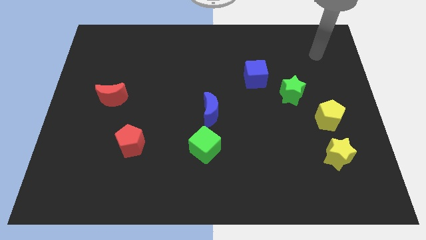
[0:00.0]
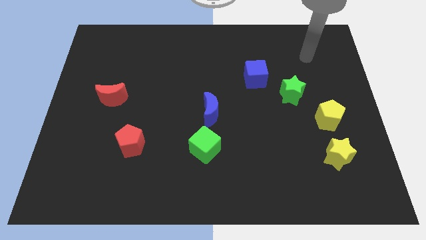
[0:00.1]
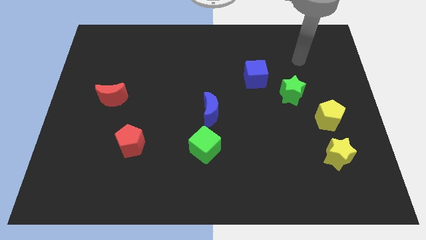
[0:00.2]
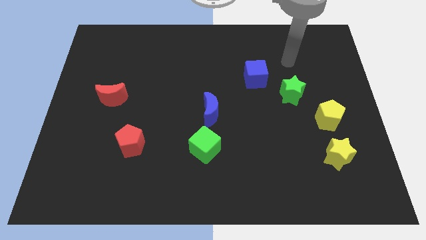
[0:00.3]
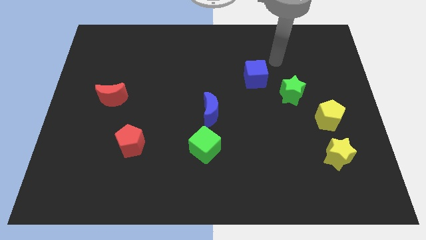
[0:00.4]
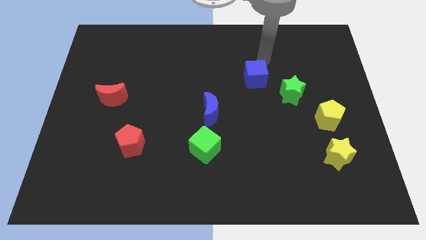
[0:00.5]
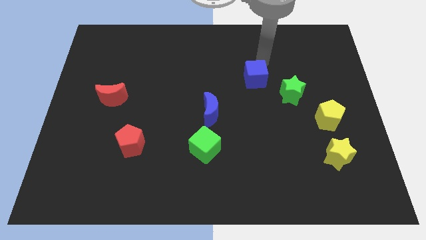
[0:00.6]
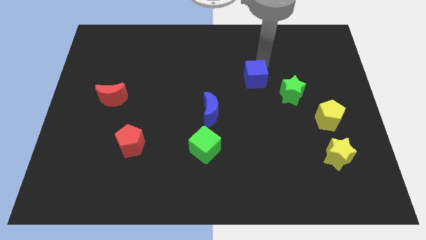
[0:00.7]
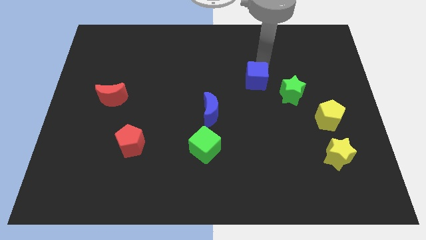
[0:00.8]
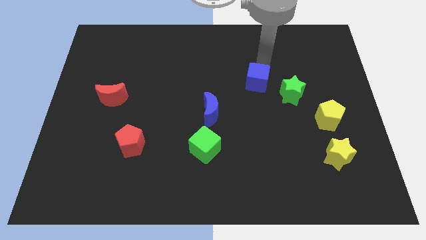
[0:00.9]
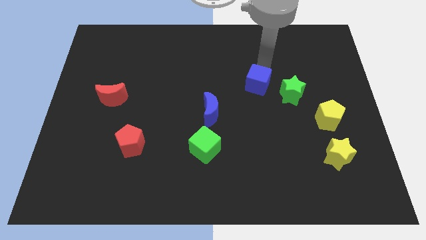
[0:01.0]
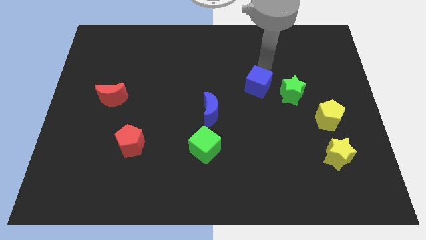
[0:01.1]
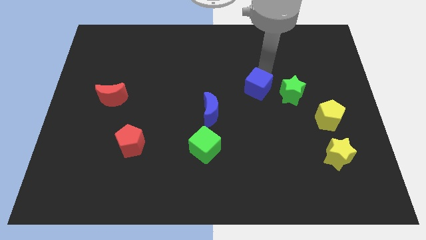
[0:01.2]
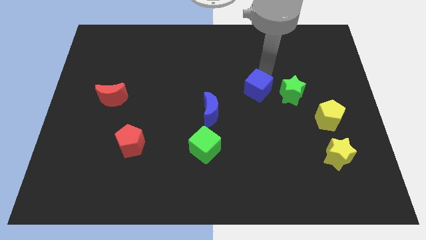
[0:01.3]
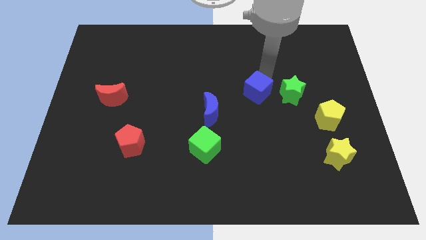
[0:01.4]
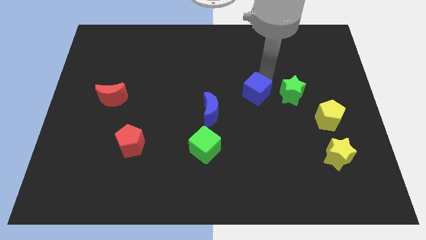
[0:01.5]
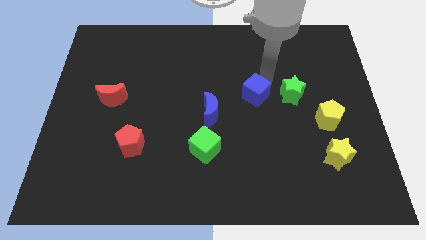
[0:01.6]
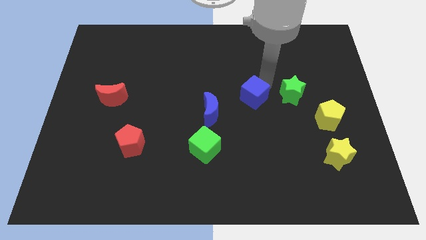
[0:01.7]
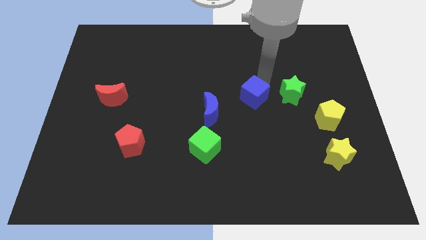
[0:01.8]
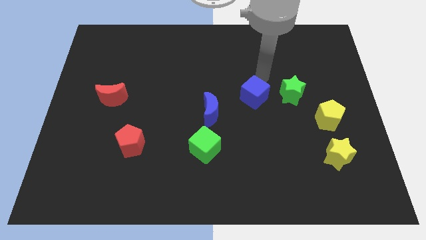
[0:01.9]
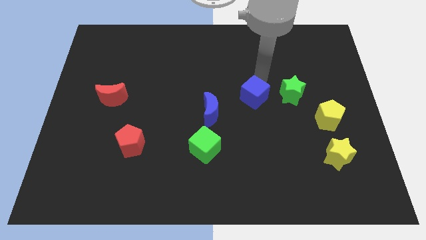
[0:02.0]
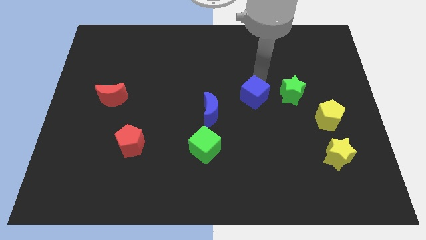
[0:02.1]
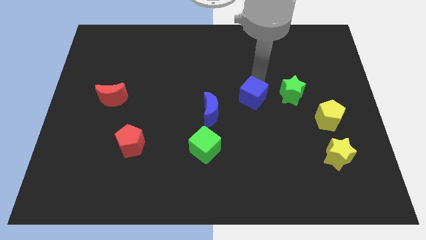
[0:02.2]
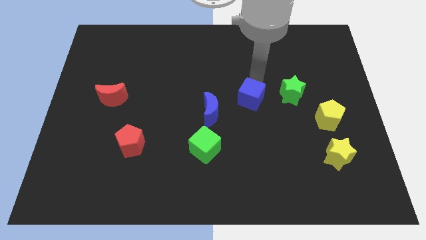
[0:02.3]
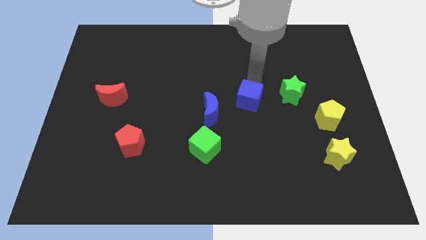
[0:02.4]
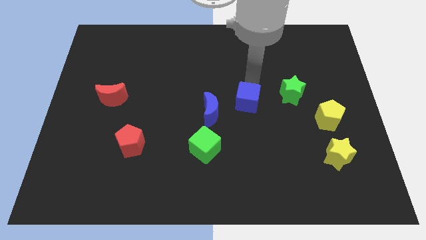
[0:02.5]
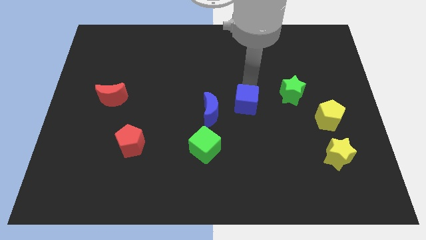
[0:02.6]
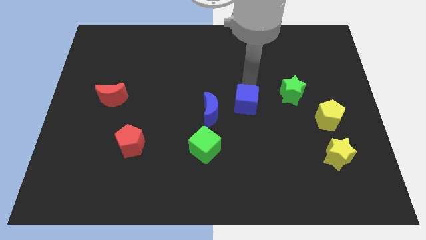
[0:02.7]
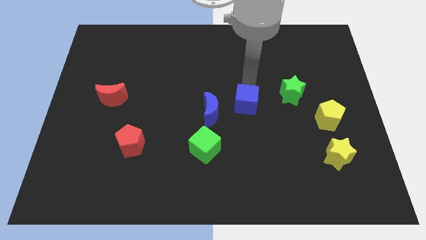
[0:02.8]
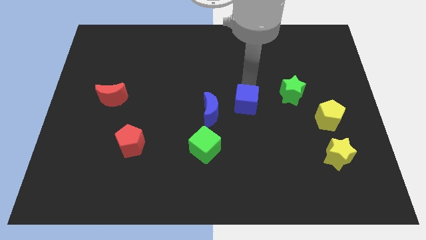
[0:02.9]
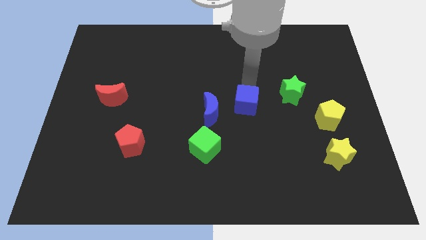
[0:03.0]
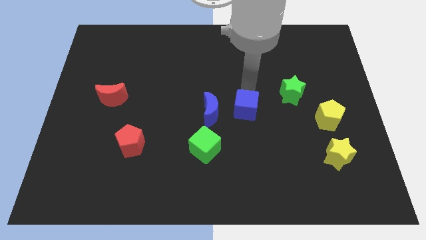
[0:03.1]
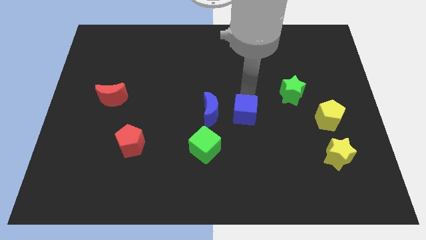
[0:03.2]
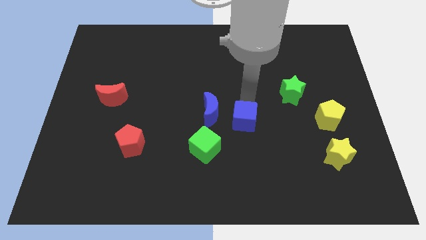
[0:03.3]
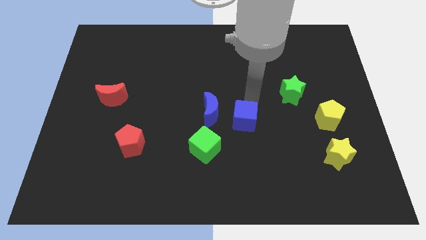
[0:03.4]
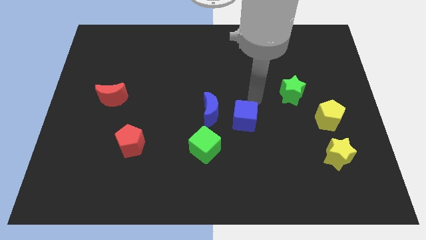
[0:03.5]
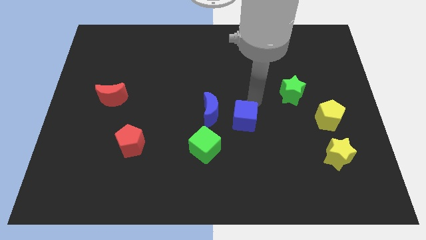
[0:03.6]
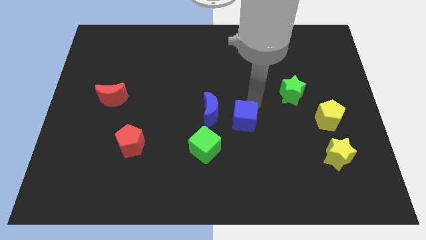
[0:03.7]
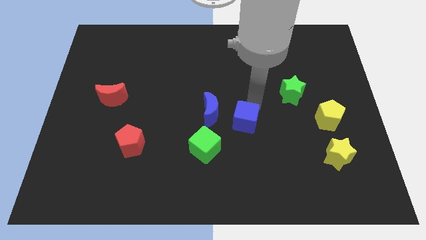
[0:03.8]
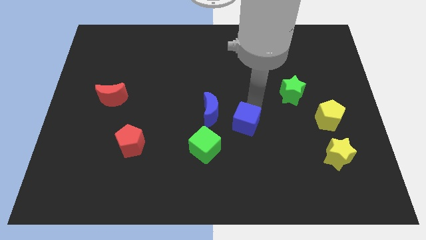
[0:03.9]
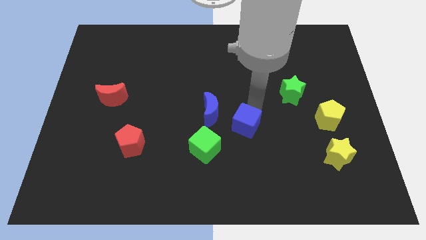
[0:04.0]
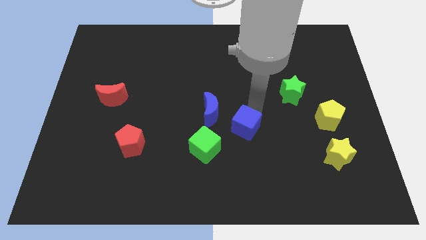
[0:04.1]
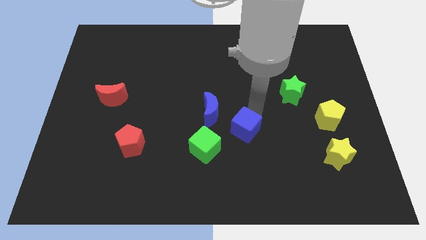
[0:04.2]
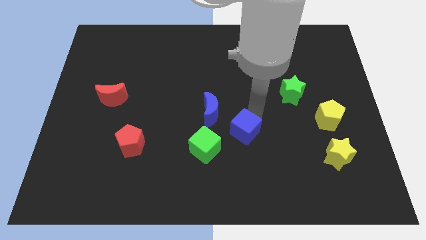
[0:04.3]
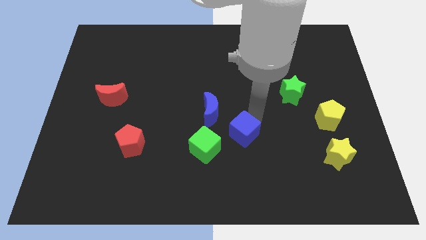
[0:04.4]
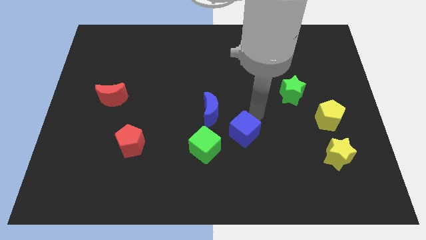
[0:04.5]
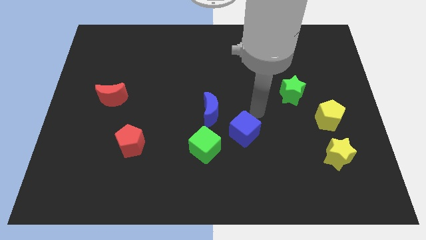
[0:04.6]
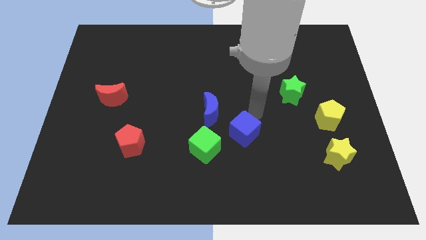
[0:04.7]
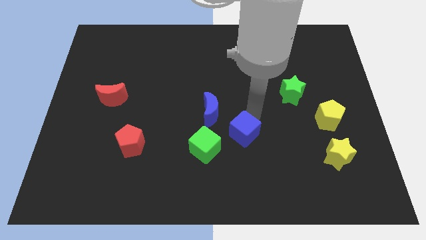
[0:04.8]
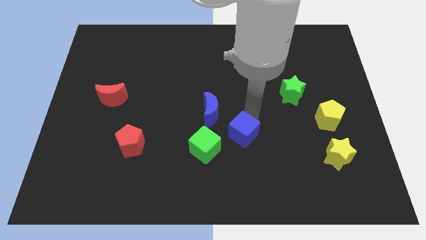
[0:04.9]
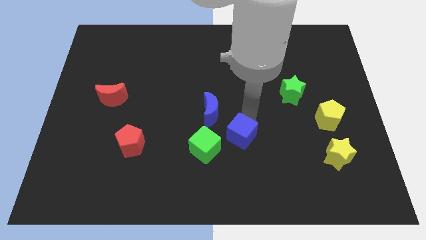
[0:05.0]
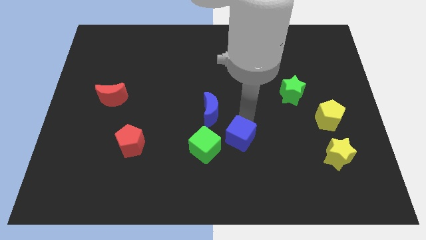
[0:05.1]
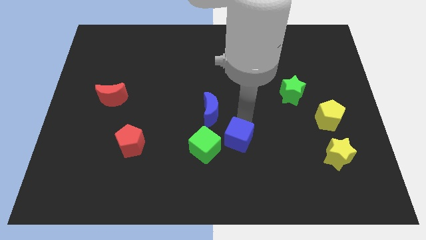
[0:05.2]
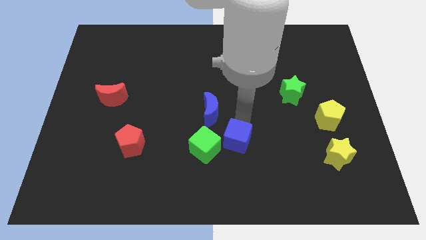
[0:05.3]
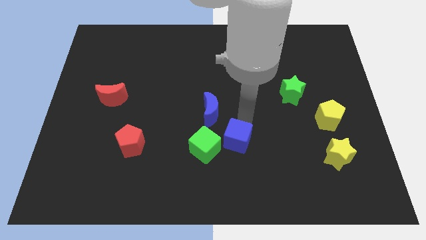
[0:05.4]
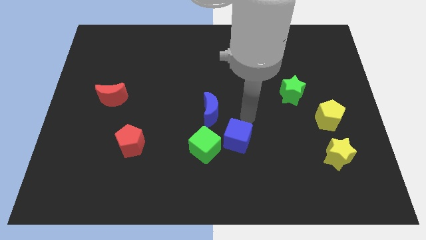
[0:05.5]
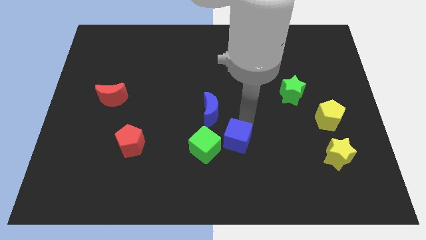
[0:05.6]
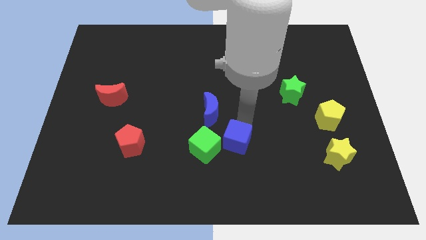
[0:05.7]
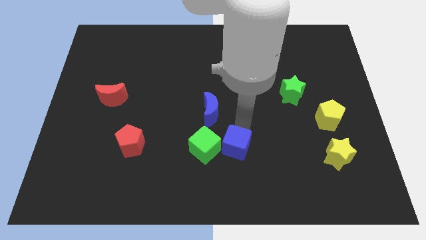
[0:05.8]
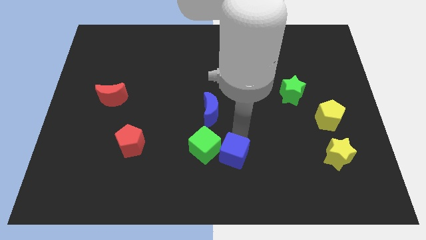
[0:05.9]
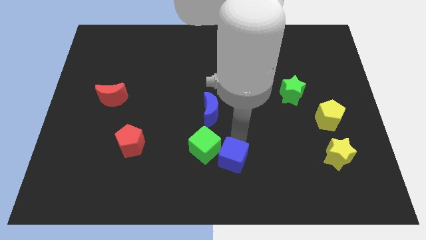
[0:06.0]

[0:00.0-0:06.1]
move the blue cube to the bottom
